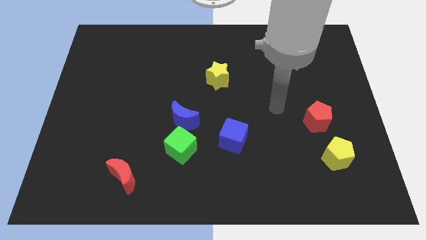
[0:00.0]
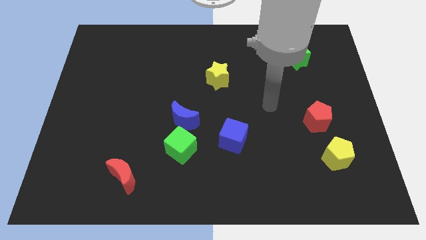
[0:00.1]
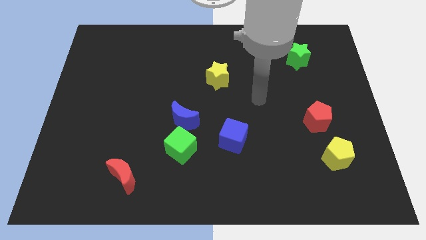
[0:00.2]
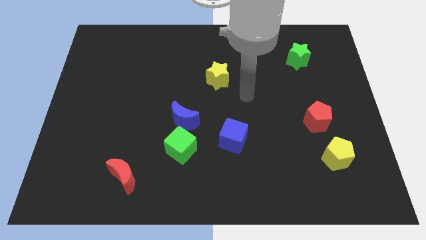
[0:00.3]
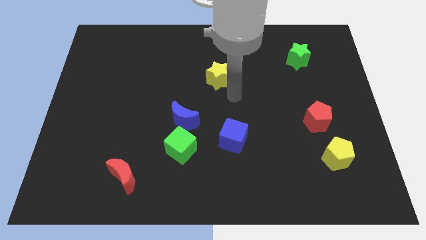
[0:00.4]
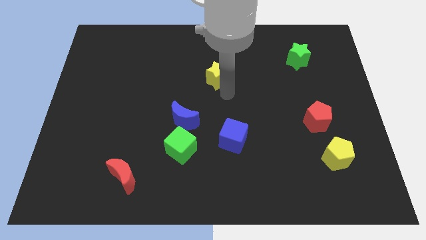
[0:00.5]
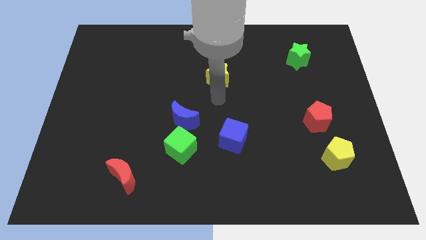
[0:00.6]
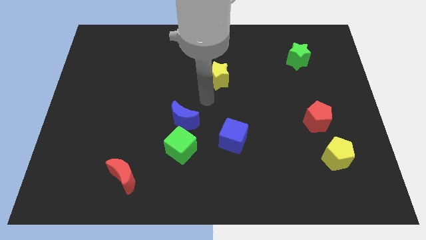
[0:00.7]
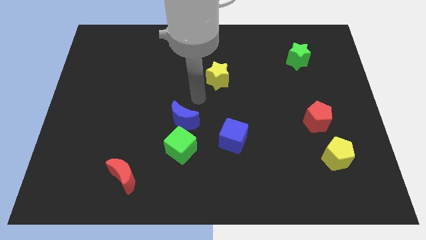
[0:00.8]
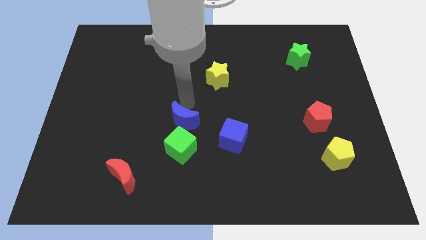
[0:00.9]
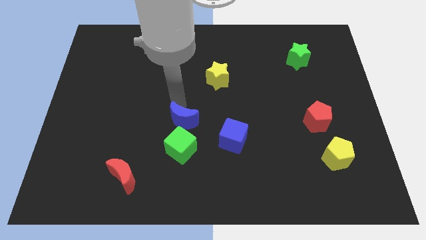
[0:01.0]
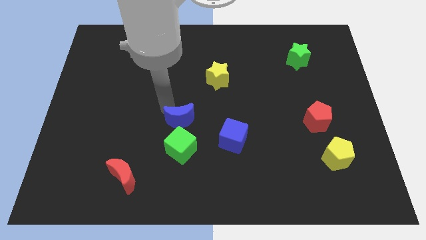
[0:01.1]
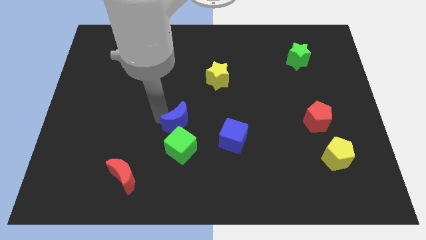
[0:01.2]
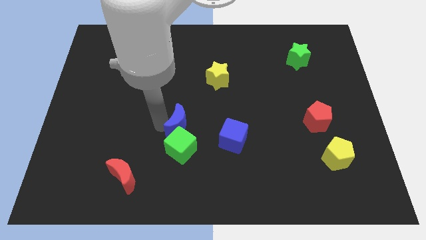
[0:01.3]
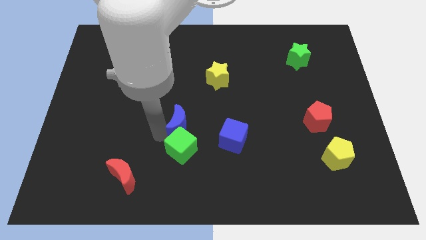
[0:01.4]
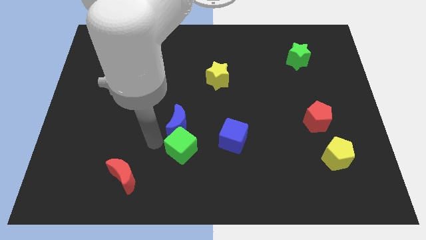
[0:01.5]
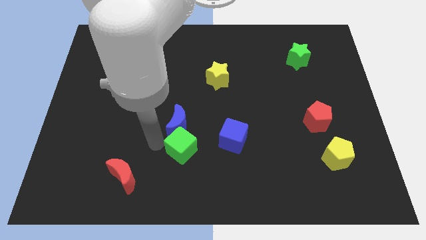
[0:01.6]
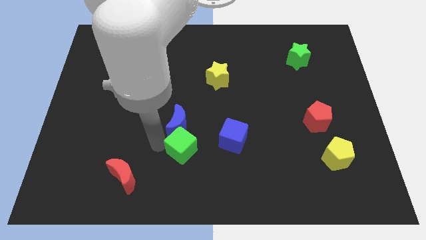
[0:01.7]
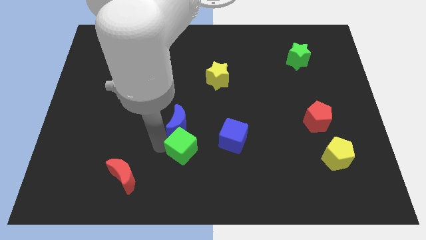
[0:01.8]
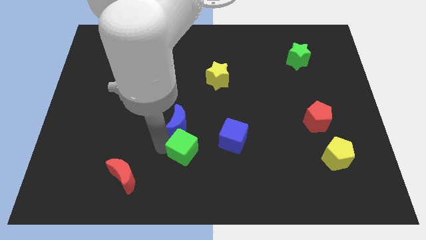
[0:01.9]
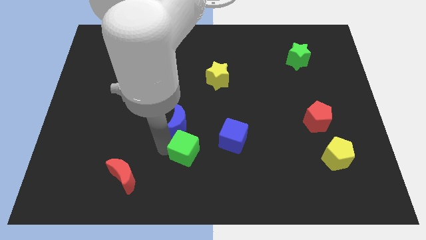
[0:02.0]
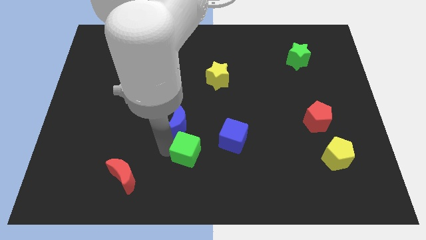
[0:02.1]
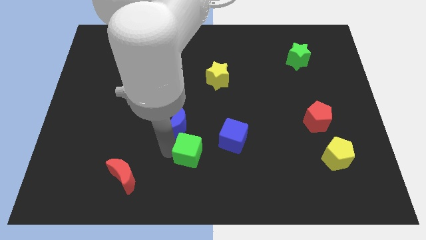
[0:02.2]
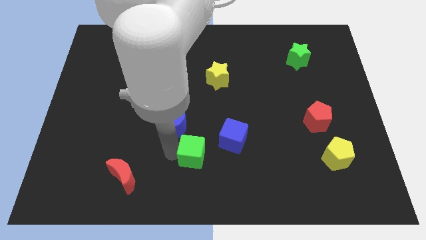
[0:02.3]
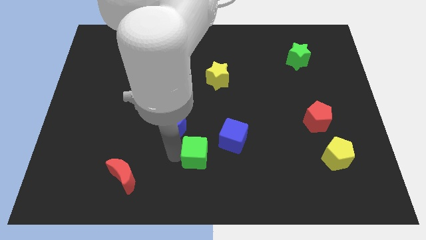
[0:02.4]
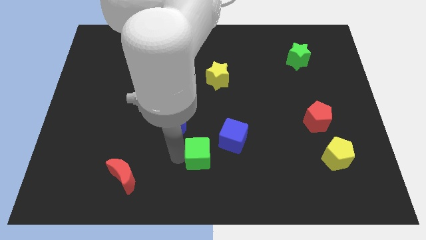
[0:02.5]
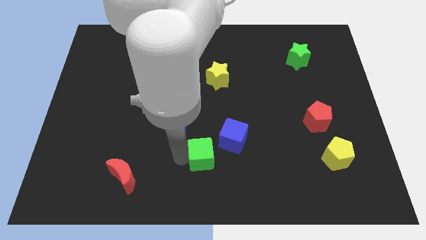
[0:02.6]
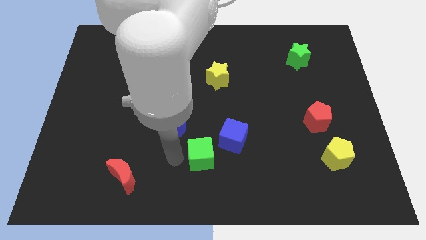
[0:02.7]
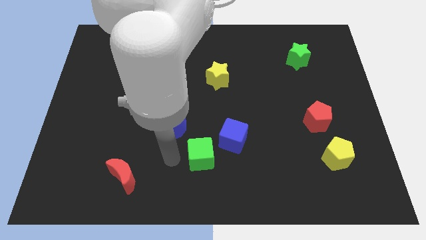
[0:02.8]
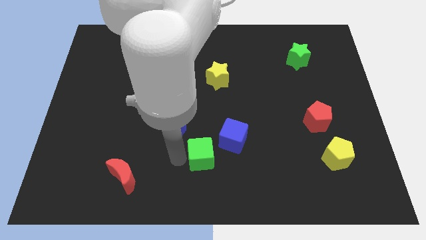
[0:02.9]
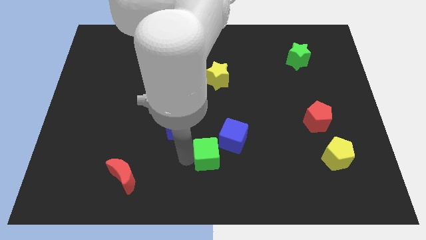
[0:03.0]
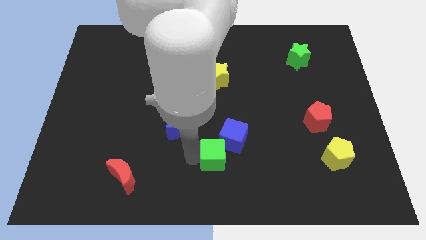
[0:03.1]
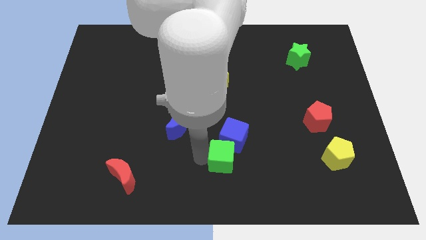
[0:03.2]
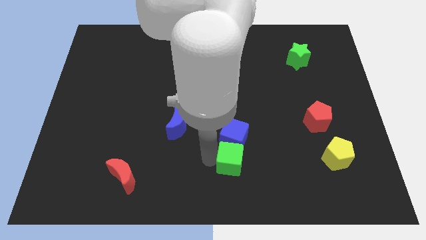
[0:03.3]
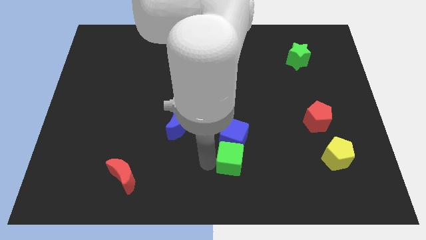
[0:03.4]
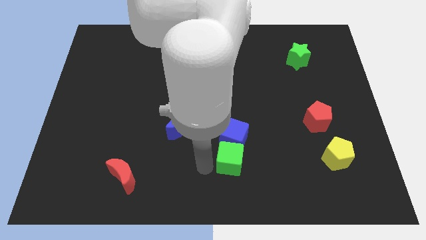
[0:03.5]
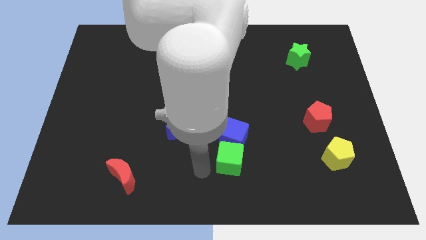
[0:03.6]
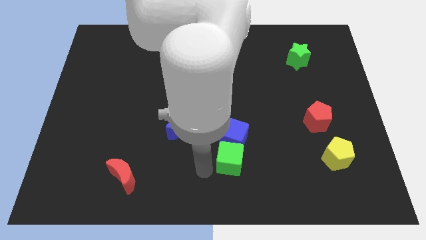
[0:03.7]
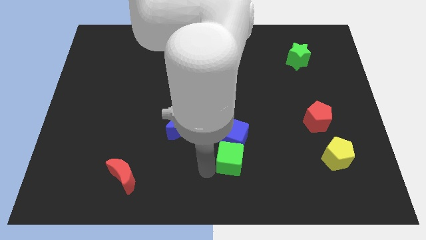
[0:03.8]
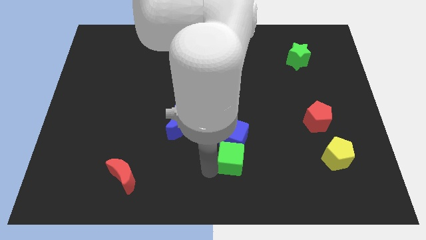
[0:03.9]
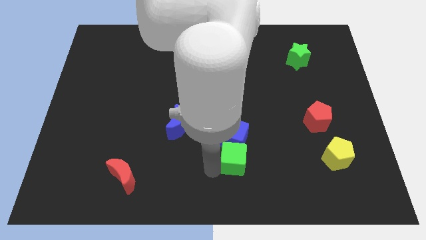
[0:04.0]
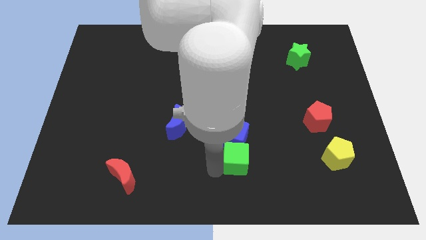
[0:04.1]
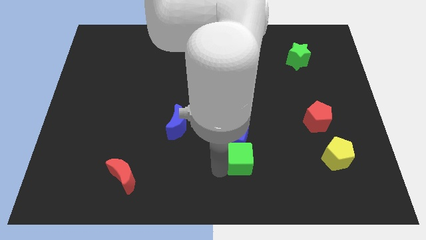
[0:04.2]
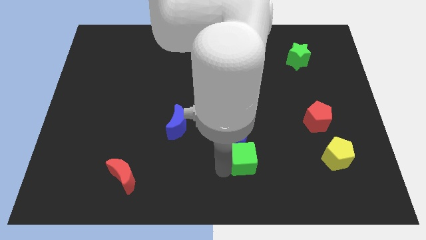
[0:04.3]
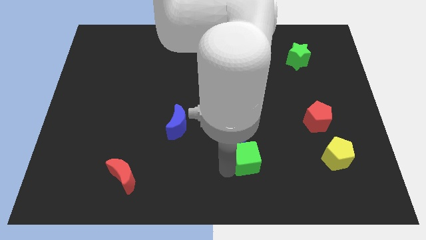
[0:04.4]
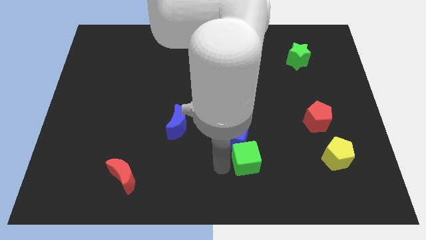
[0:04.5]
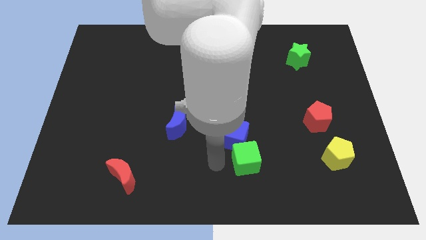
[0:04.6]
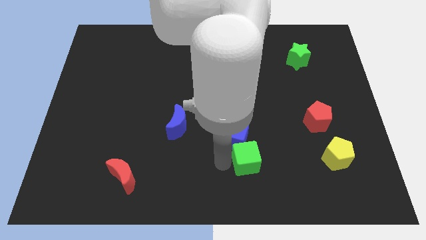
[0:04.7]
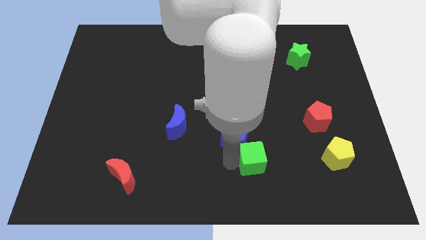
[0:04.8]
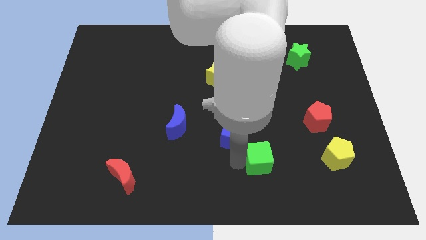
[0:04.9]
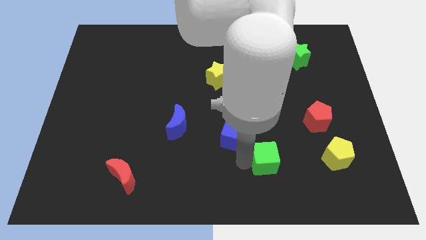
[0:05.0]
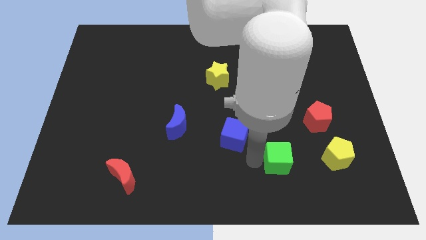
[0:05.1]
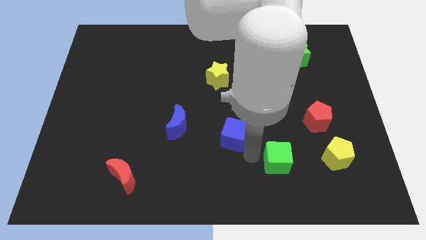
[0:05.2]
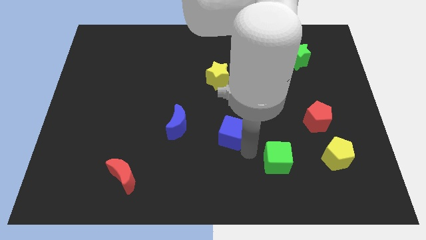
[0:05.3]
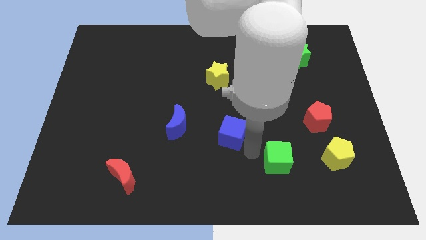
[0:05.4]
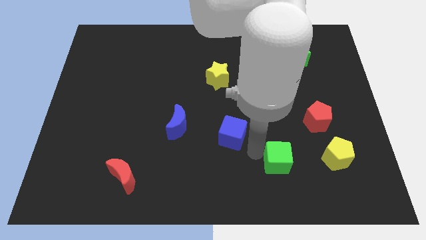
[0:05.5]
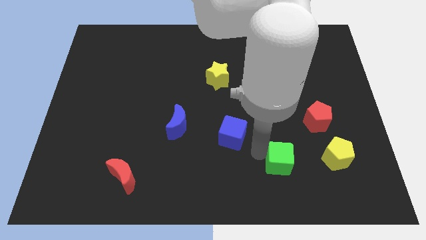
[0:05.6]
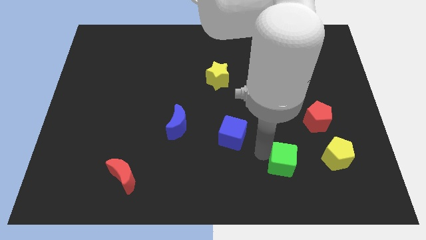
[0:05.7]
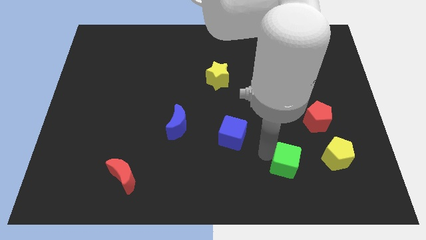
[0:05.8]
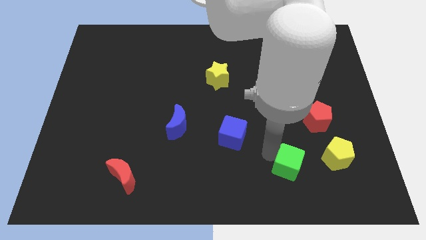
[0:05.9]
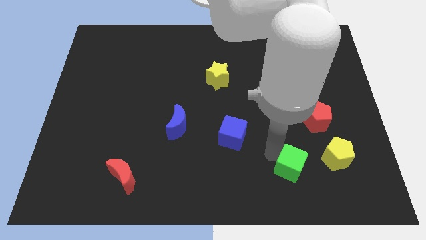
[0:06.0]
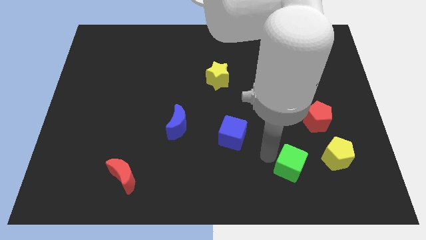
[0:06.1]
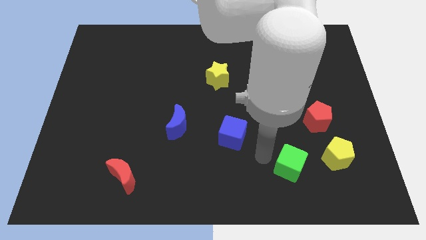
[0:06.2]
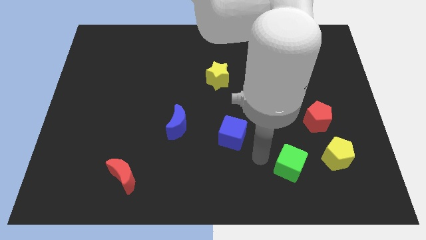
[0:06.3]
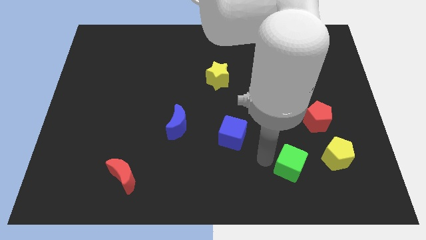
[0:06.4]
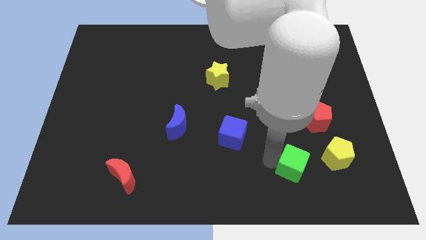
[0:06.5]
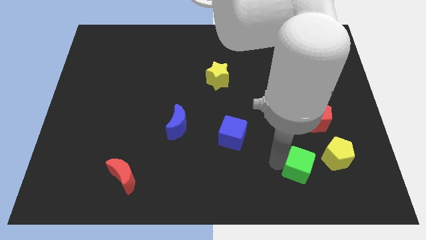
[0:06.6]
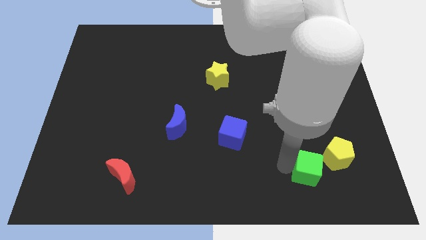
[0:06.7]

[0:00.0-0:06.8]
slide the green cube to the bottom side of the red pentagon

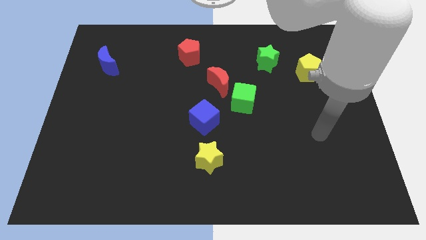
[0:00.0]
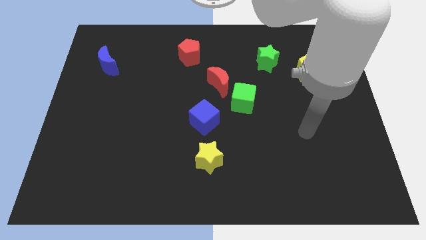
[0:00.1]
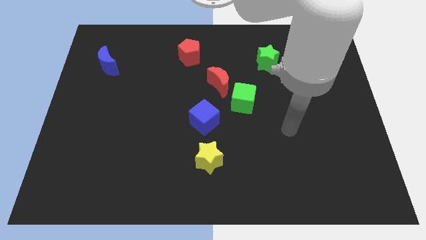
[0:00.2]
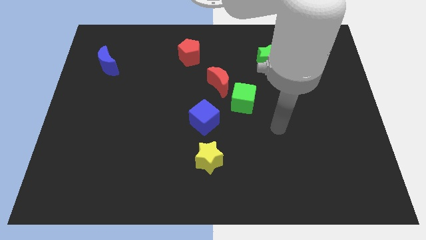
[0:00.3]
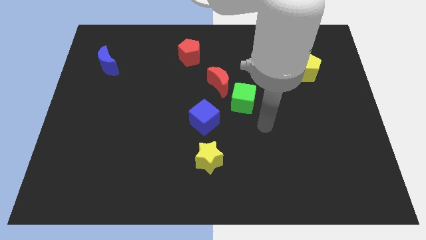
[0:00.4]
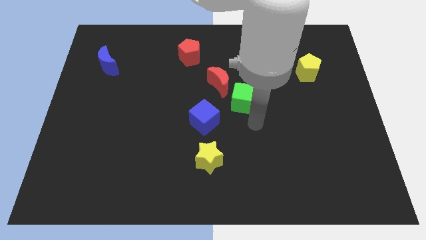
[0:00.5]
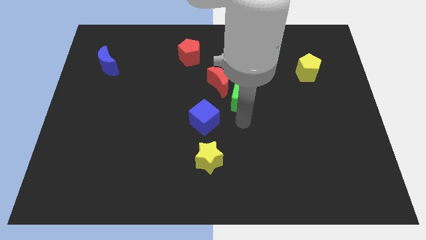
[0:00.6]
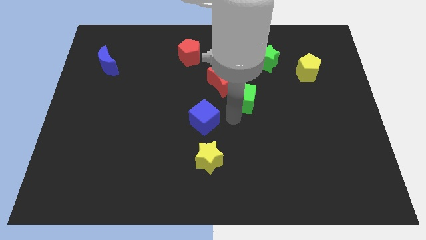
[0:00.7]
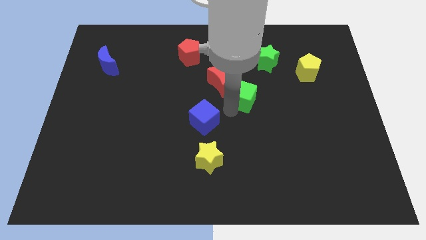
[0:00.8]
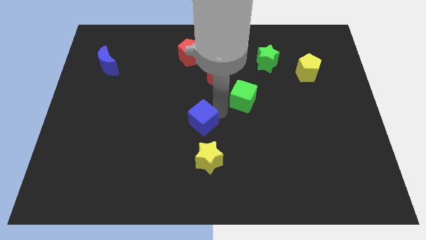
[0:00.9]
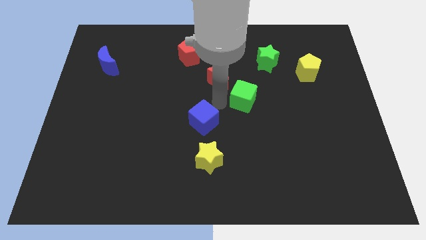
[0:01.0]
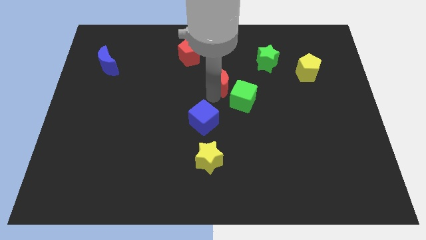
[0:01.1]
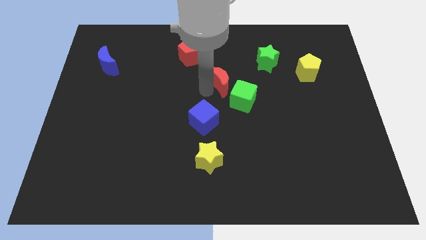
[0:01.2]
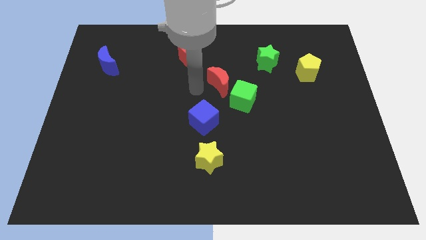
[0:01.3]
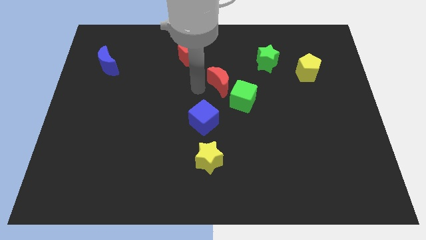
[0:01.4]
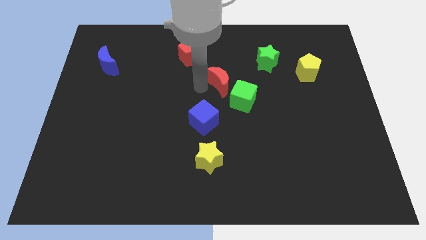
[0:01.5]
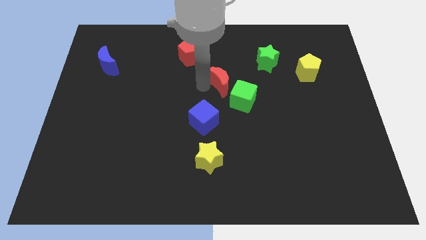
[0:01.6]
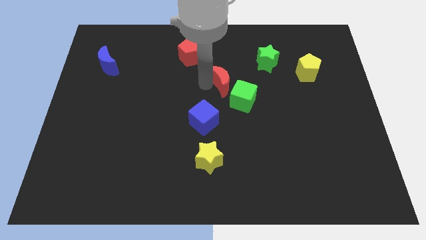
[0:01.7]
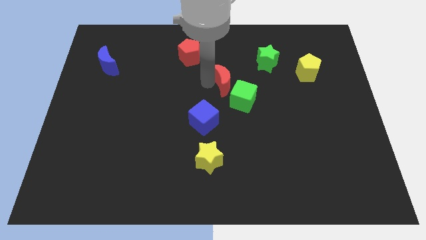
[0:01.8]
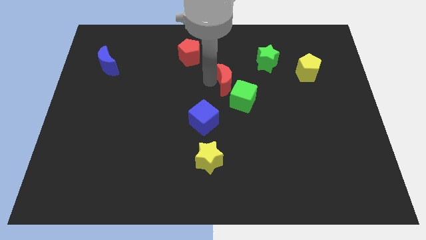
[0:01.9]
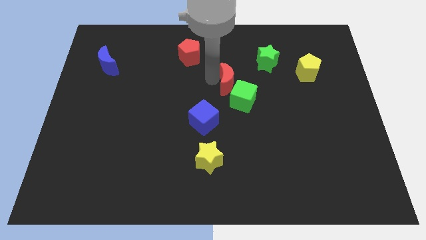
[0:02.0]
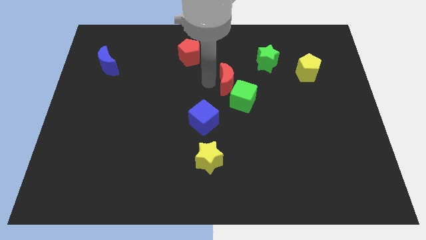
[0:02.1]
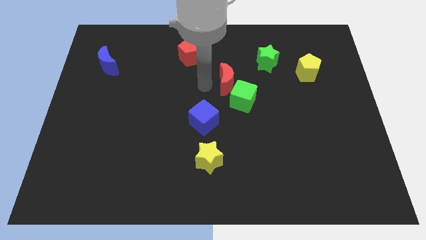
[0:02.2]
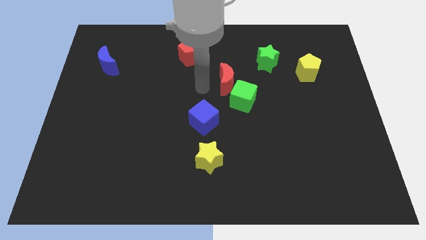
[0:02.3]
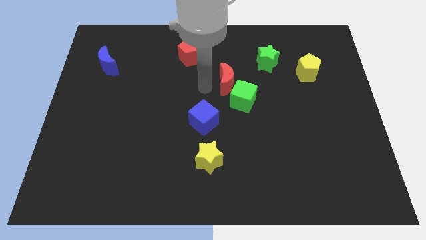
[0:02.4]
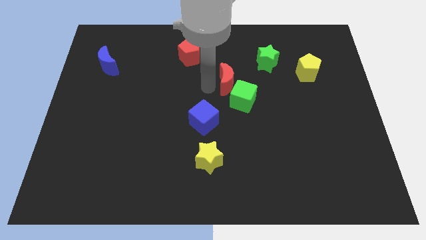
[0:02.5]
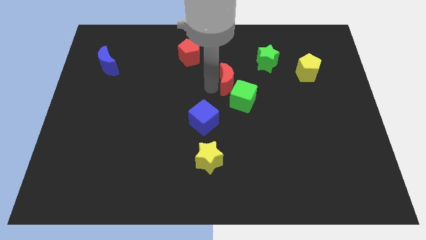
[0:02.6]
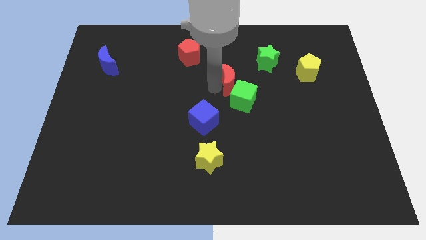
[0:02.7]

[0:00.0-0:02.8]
push the red moon diagonally down and to the left of the green star
